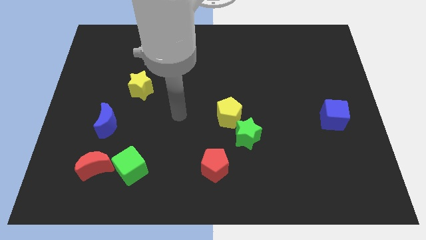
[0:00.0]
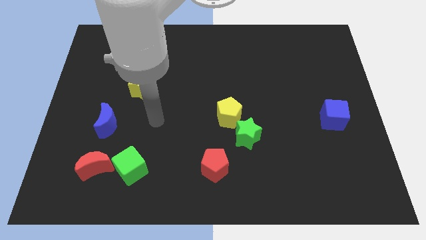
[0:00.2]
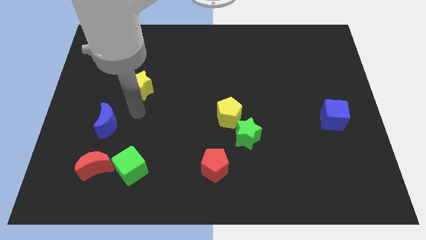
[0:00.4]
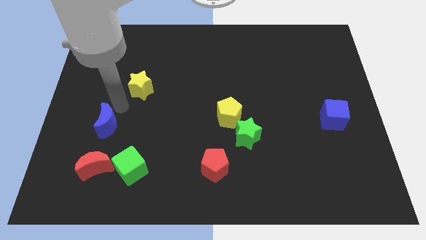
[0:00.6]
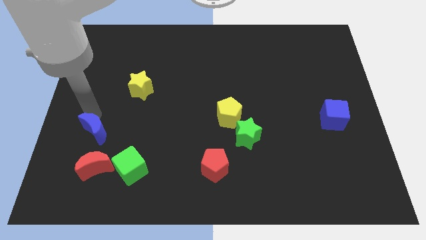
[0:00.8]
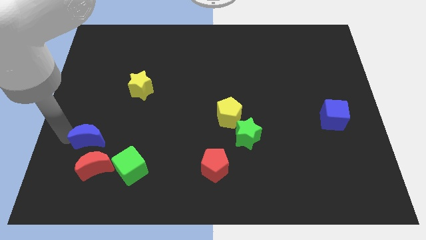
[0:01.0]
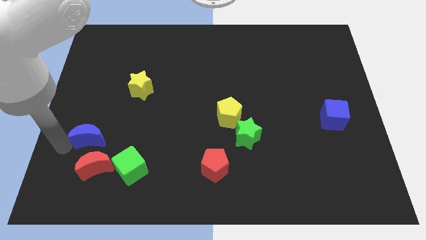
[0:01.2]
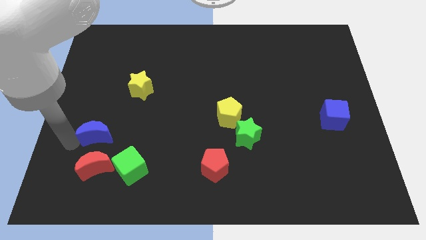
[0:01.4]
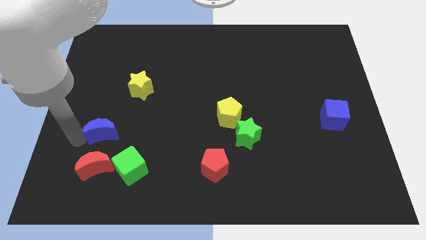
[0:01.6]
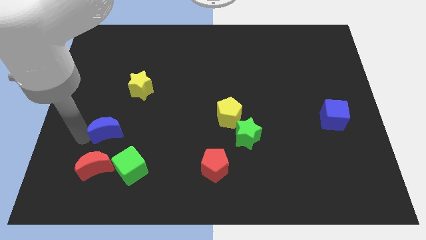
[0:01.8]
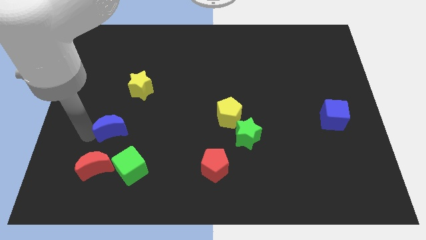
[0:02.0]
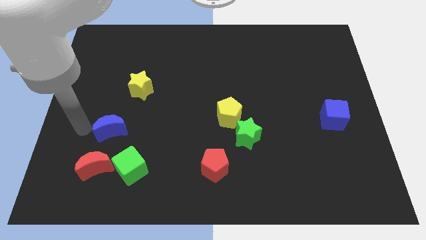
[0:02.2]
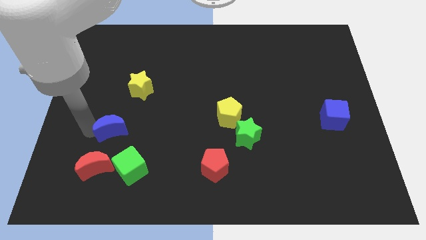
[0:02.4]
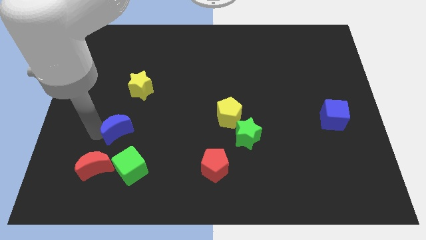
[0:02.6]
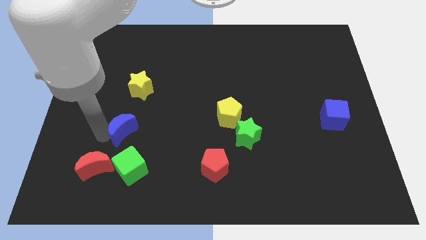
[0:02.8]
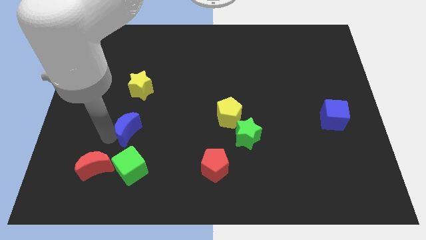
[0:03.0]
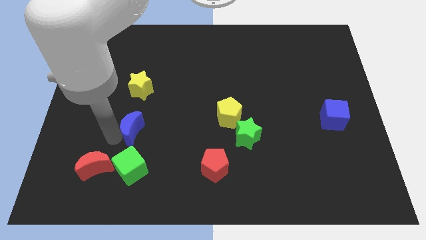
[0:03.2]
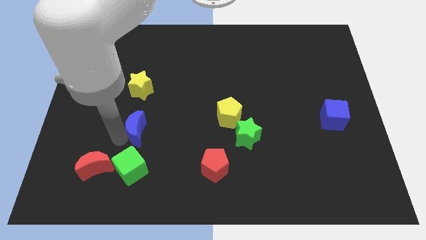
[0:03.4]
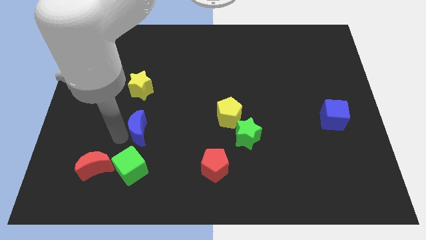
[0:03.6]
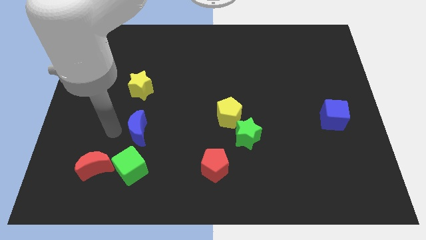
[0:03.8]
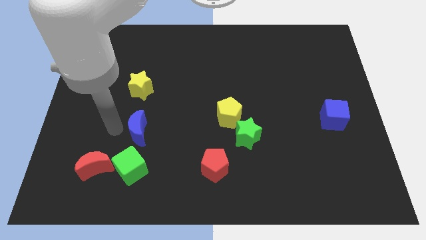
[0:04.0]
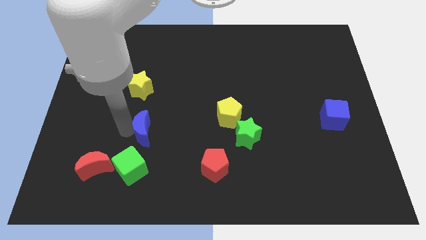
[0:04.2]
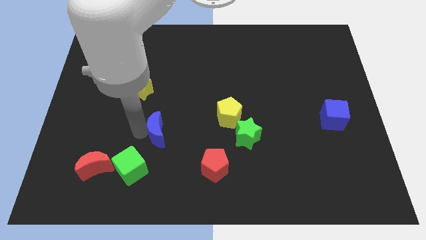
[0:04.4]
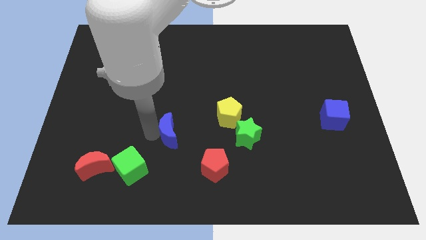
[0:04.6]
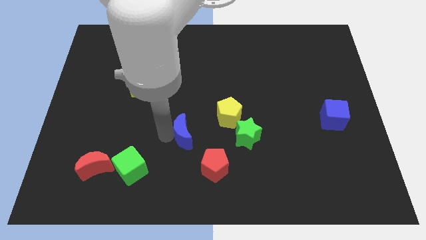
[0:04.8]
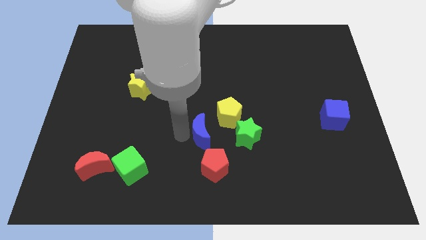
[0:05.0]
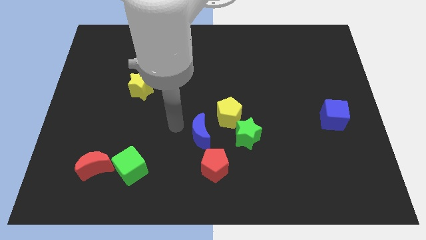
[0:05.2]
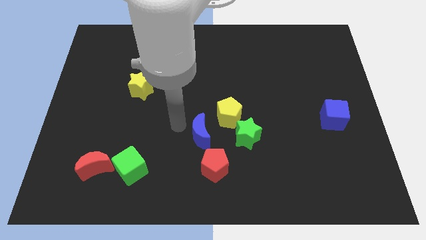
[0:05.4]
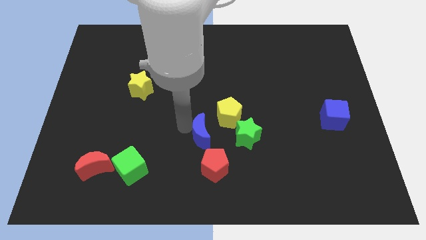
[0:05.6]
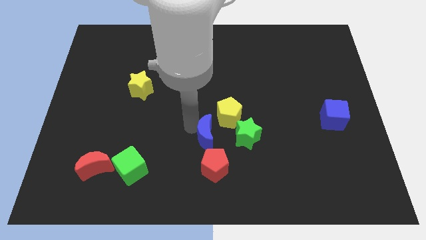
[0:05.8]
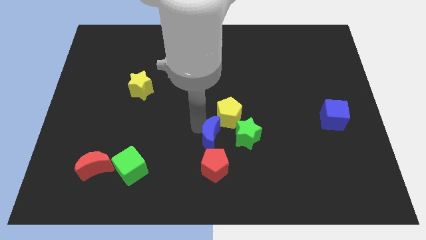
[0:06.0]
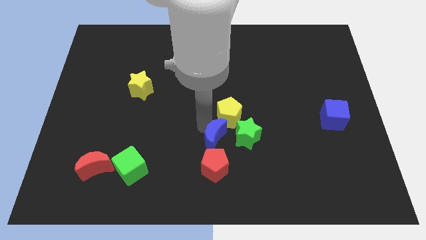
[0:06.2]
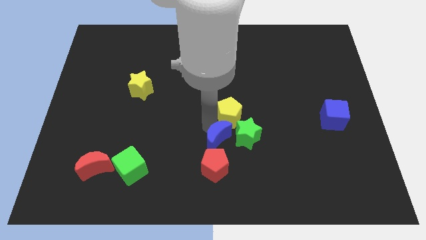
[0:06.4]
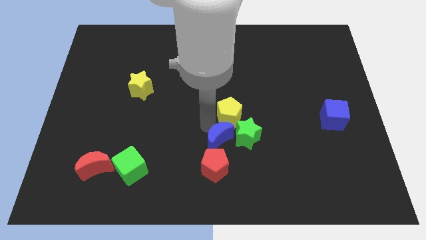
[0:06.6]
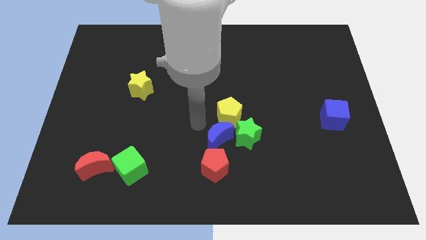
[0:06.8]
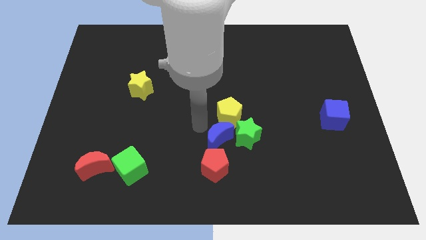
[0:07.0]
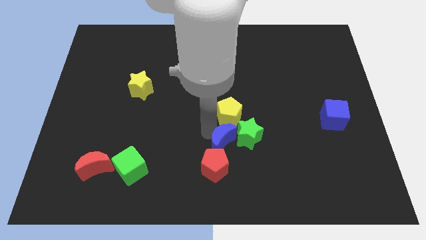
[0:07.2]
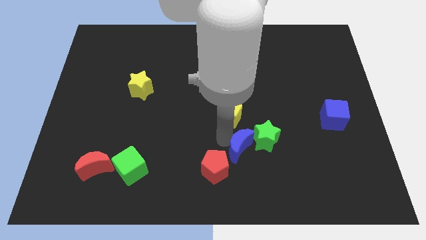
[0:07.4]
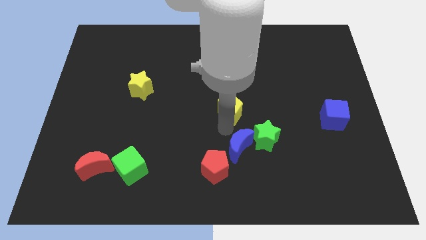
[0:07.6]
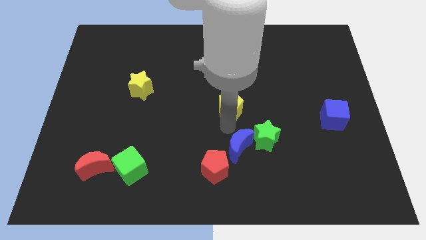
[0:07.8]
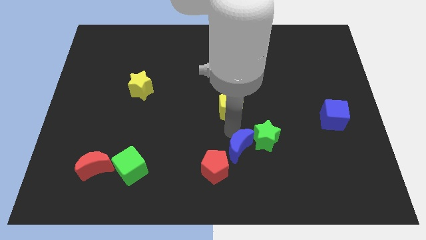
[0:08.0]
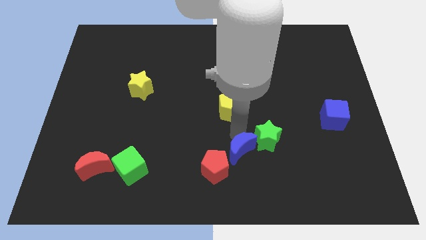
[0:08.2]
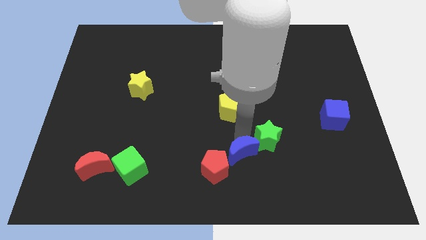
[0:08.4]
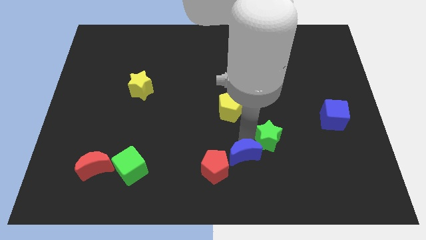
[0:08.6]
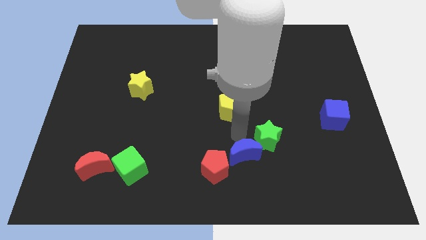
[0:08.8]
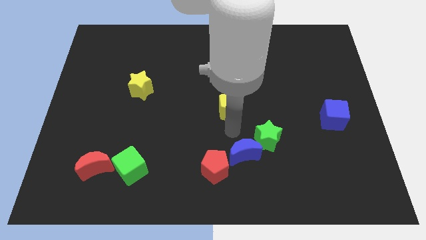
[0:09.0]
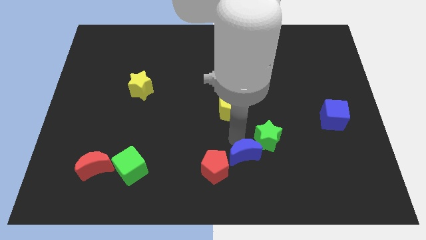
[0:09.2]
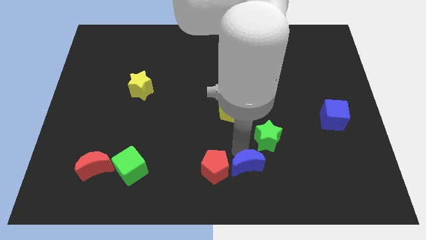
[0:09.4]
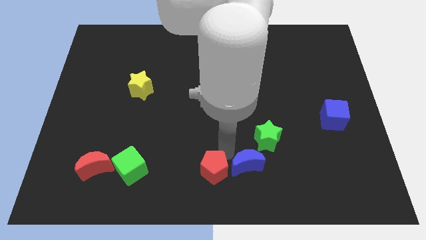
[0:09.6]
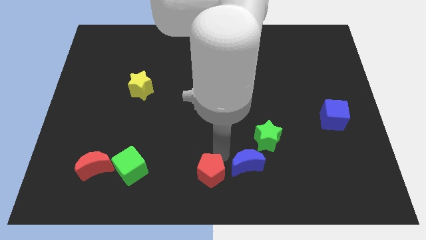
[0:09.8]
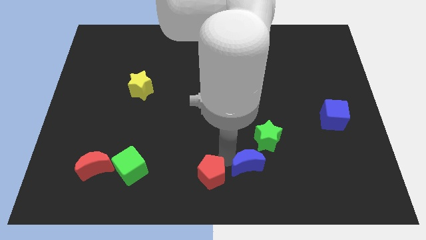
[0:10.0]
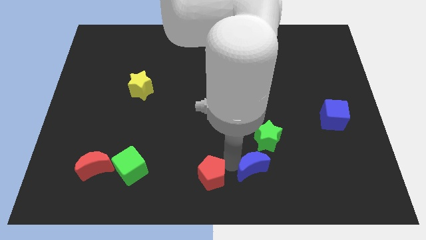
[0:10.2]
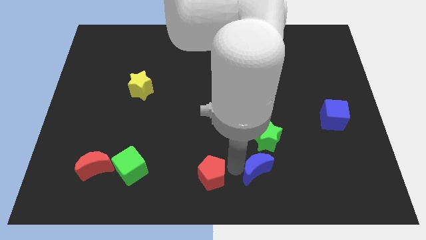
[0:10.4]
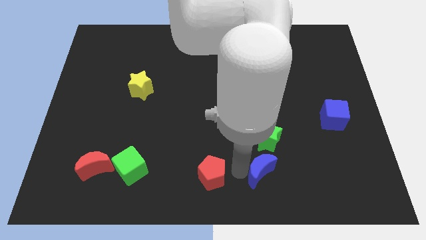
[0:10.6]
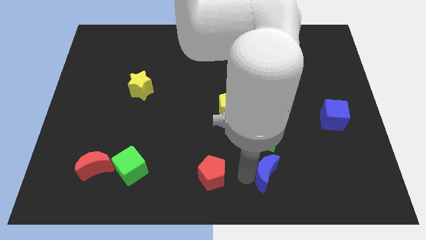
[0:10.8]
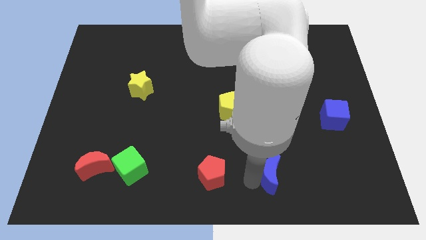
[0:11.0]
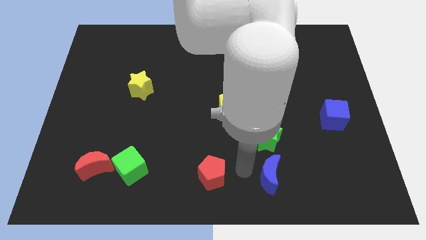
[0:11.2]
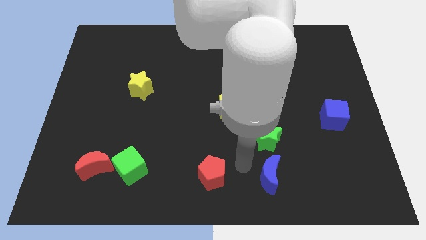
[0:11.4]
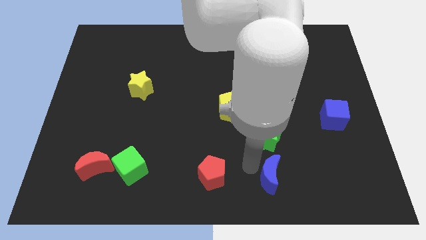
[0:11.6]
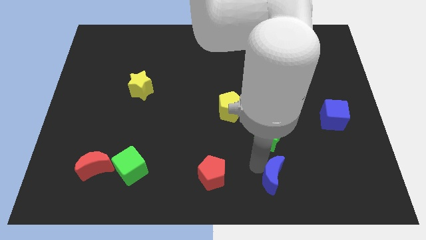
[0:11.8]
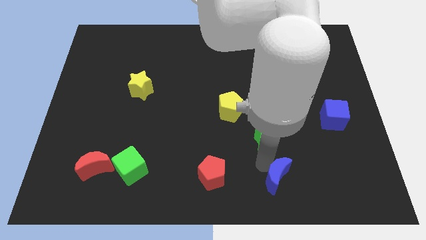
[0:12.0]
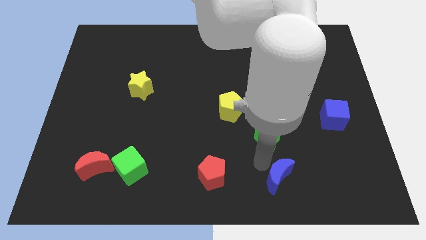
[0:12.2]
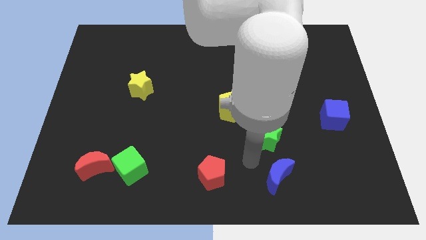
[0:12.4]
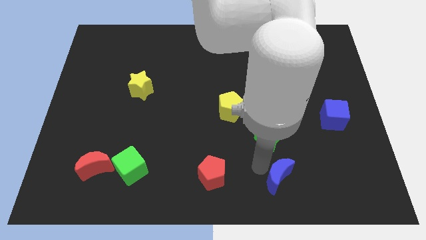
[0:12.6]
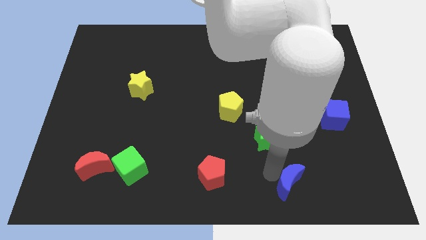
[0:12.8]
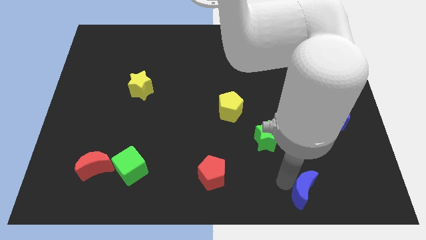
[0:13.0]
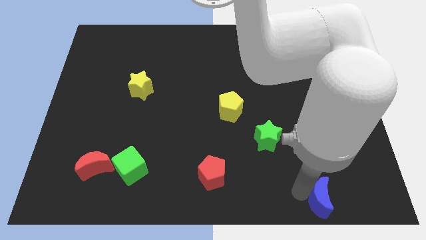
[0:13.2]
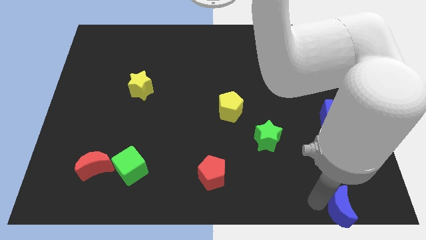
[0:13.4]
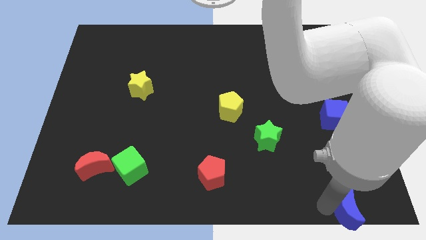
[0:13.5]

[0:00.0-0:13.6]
move the blue moon to the lower right corner
